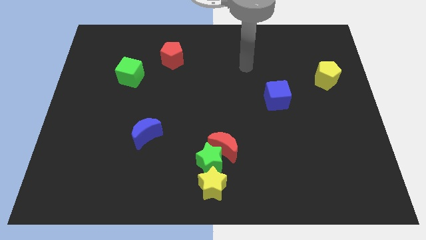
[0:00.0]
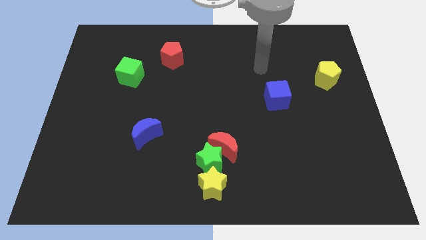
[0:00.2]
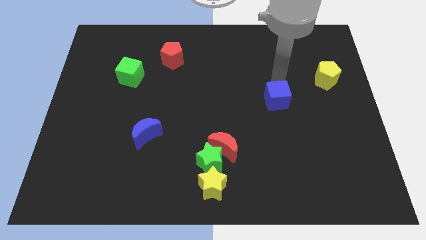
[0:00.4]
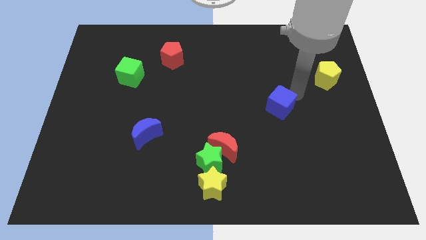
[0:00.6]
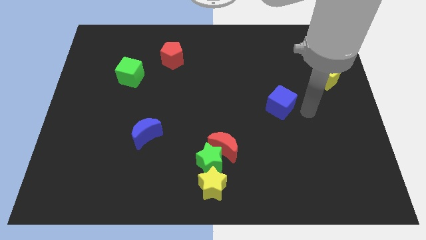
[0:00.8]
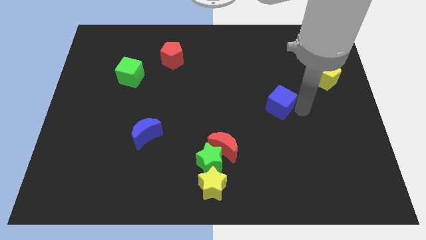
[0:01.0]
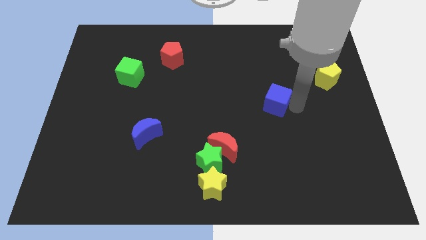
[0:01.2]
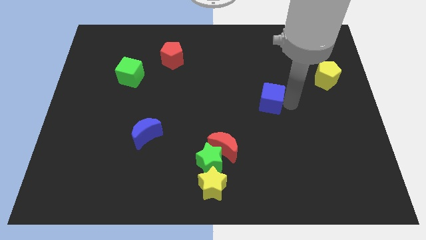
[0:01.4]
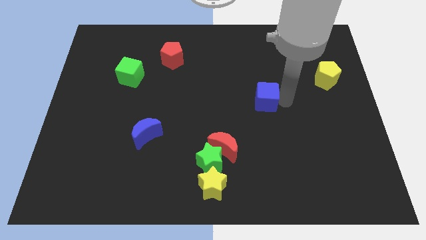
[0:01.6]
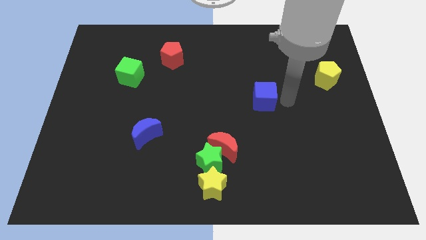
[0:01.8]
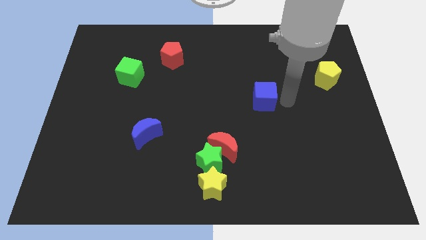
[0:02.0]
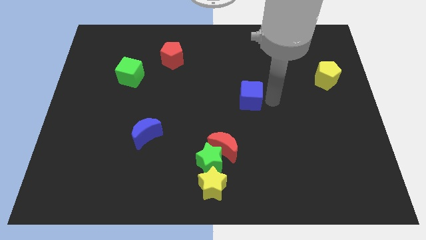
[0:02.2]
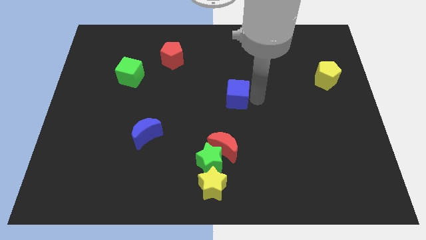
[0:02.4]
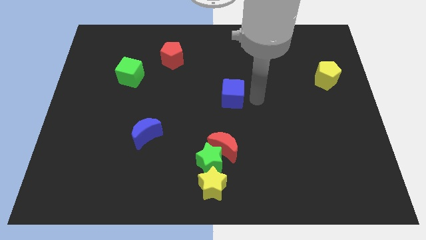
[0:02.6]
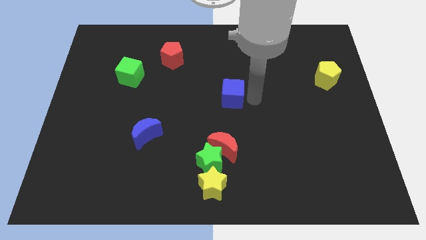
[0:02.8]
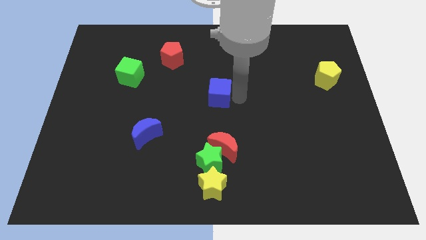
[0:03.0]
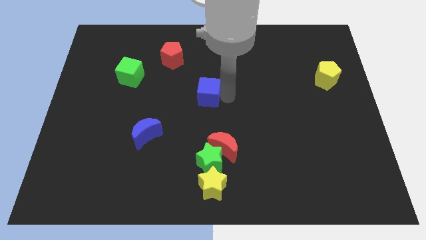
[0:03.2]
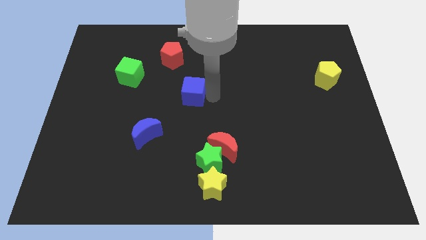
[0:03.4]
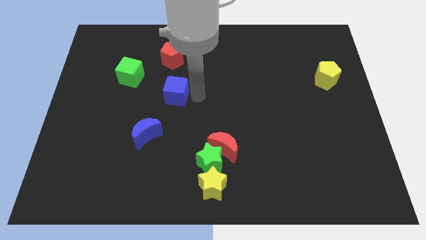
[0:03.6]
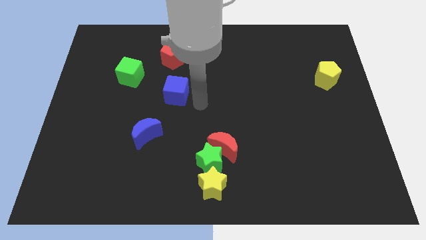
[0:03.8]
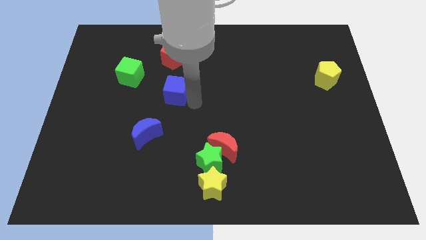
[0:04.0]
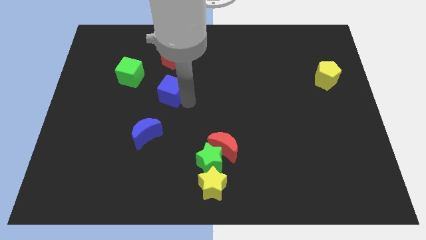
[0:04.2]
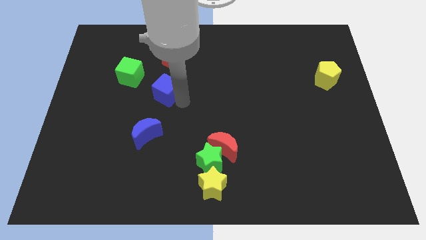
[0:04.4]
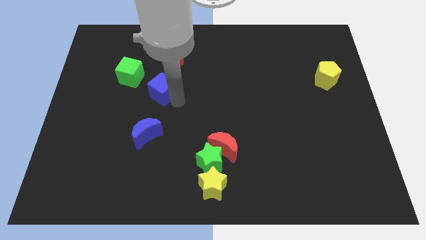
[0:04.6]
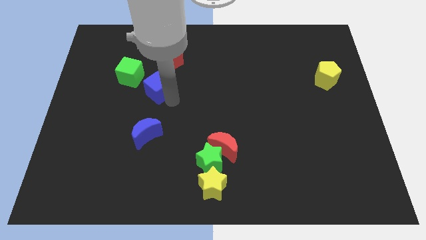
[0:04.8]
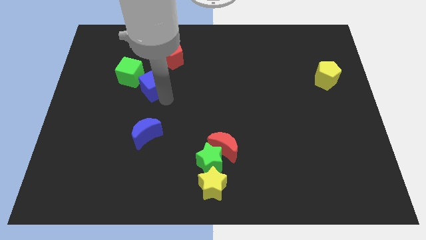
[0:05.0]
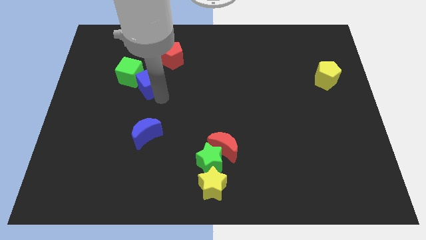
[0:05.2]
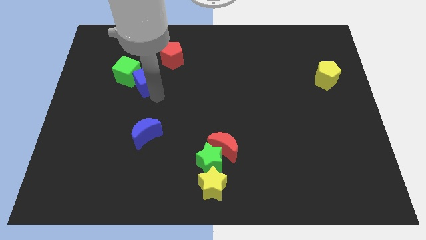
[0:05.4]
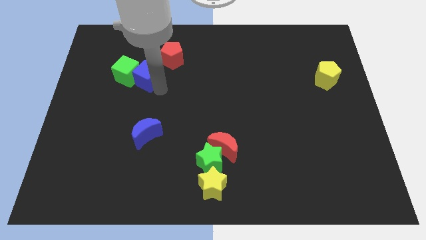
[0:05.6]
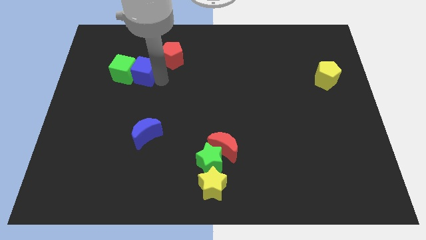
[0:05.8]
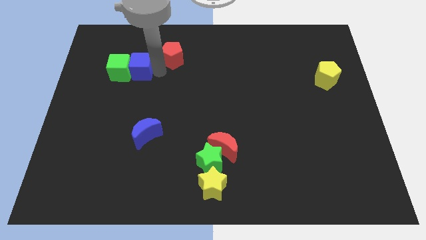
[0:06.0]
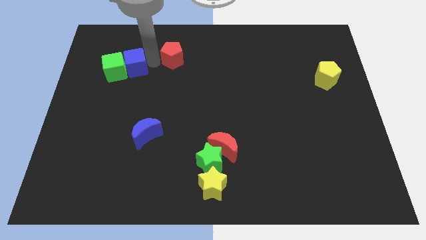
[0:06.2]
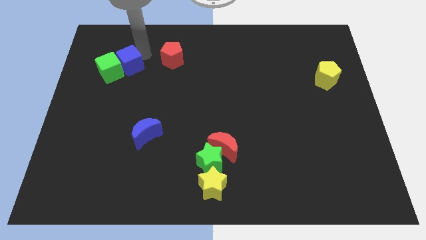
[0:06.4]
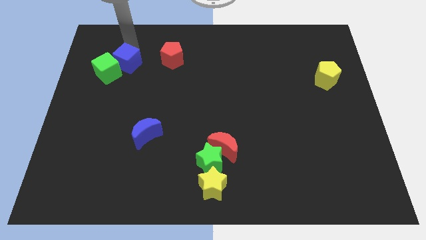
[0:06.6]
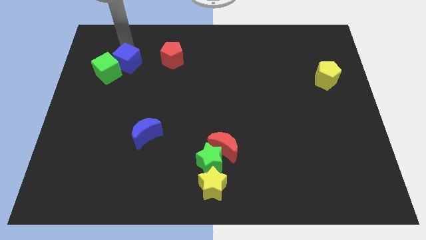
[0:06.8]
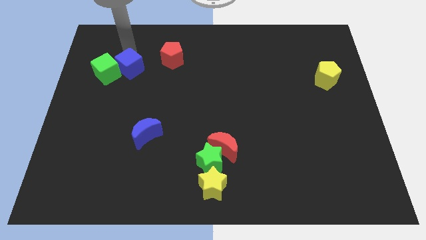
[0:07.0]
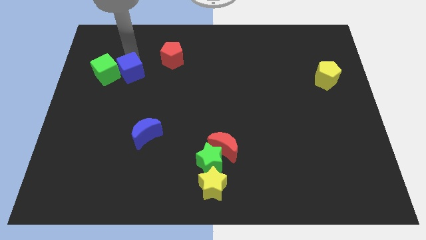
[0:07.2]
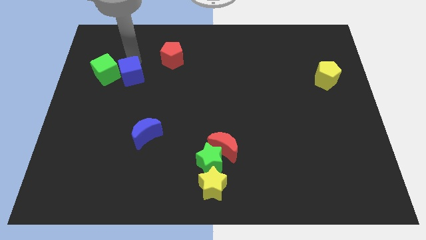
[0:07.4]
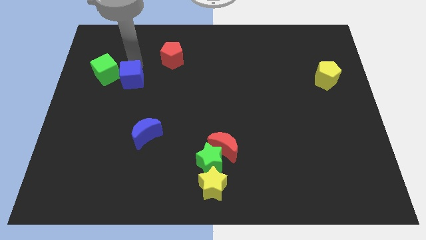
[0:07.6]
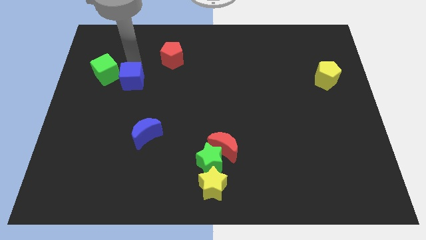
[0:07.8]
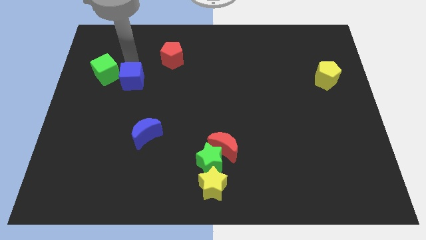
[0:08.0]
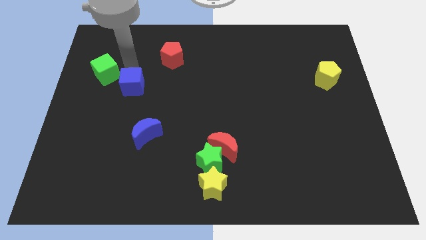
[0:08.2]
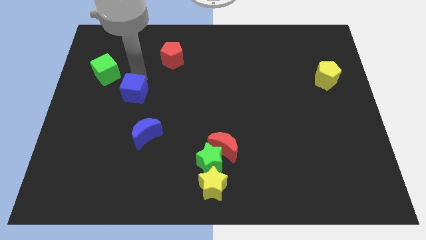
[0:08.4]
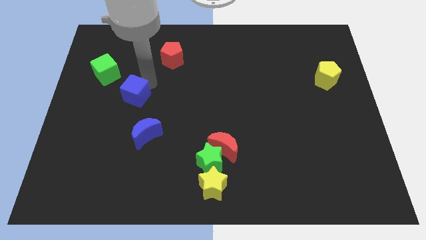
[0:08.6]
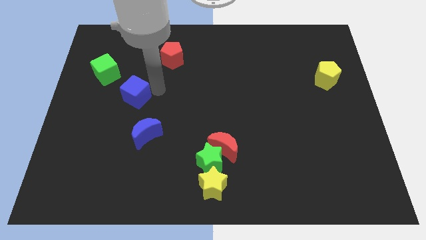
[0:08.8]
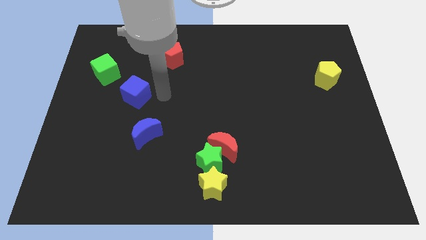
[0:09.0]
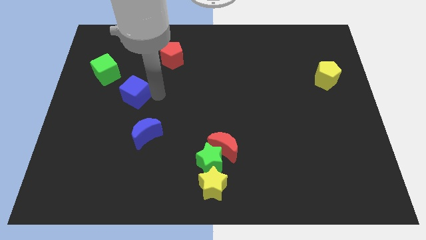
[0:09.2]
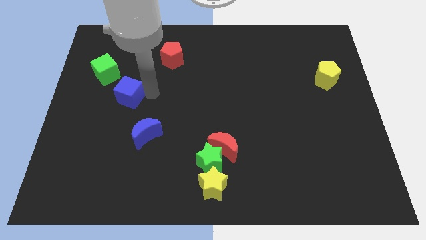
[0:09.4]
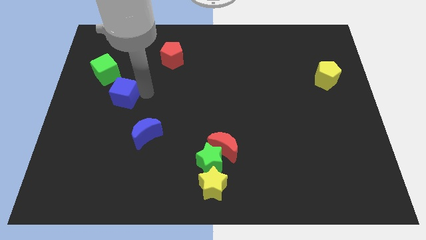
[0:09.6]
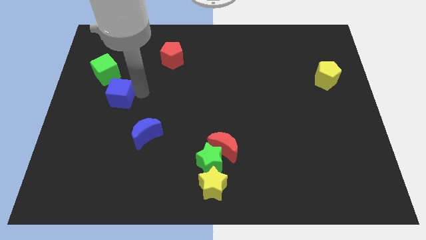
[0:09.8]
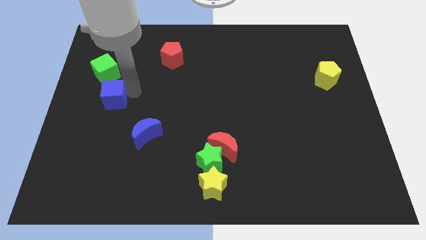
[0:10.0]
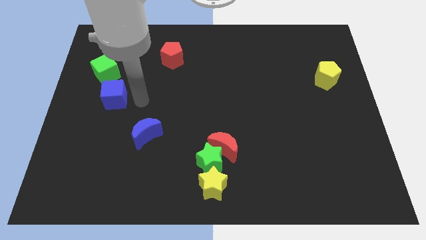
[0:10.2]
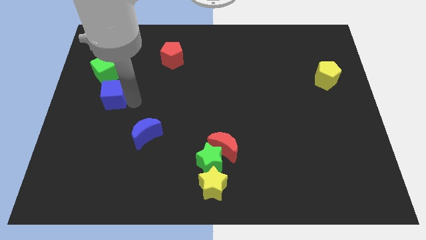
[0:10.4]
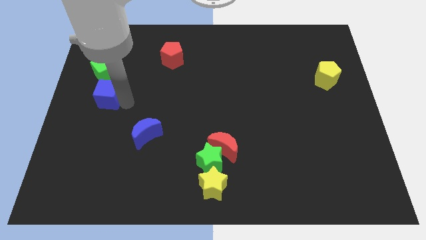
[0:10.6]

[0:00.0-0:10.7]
put the blue cube to the center left

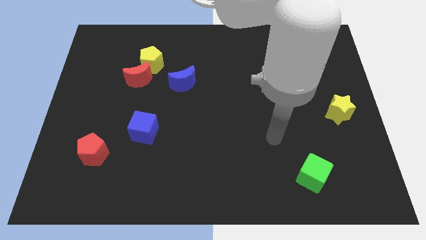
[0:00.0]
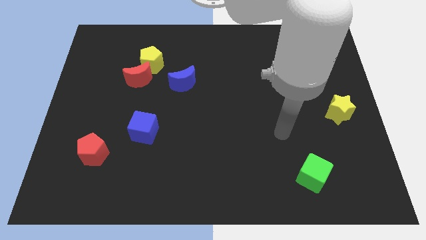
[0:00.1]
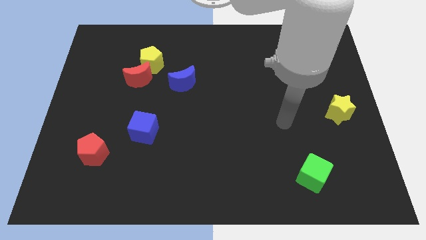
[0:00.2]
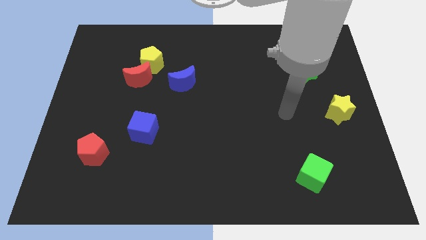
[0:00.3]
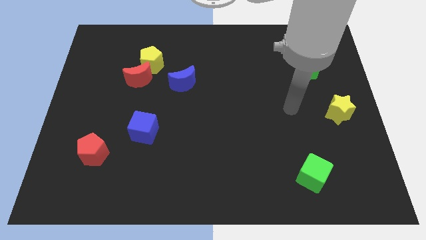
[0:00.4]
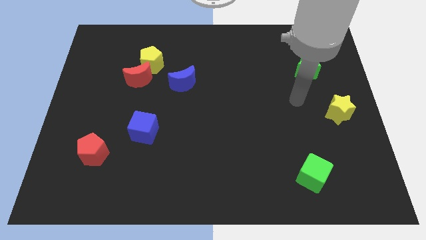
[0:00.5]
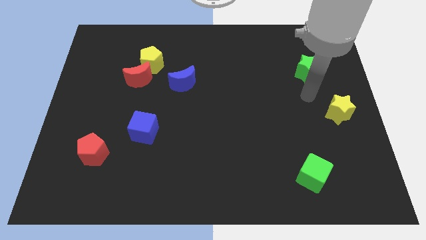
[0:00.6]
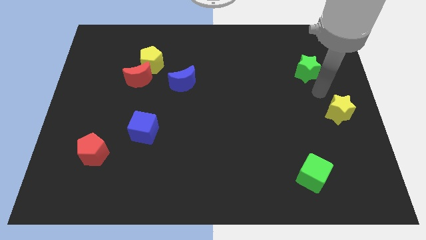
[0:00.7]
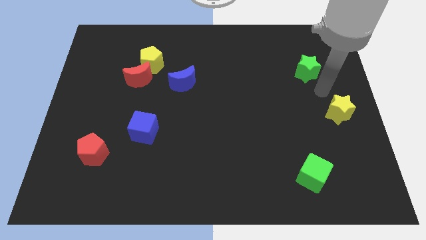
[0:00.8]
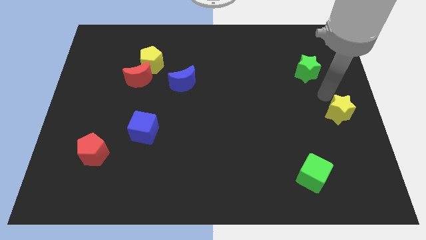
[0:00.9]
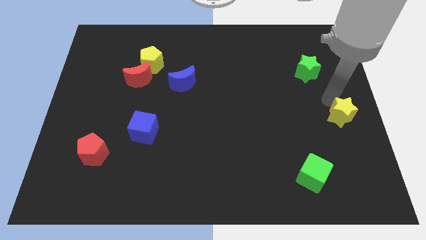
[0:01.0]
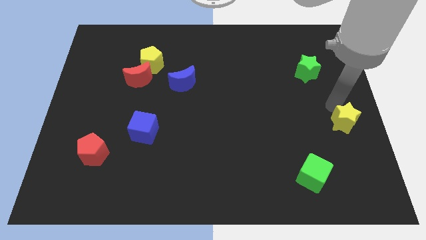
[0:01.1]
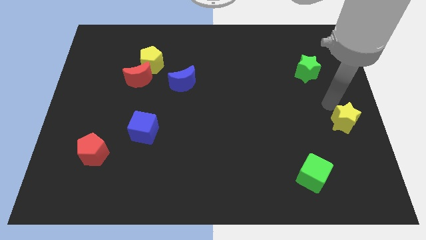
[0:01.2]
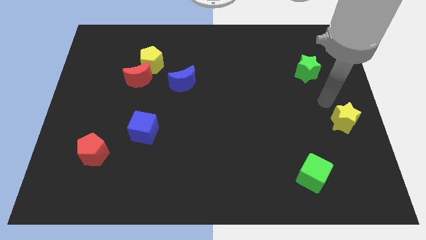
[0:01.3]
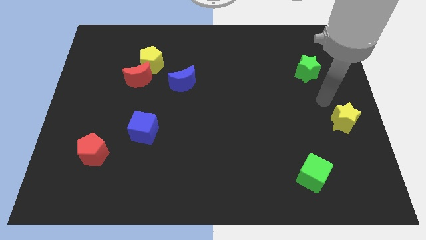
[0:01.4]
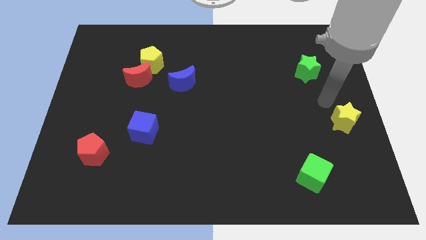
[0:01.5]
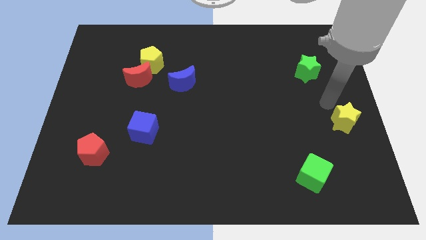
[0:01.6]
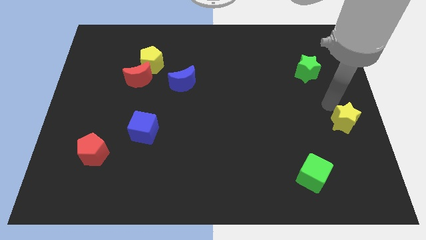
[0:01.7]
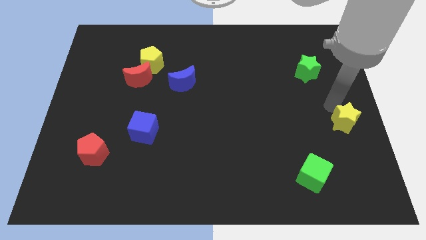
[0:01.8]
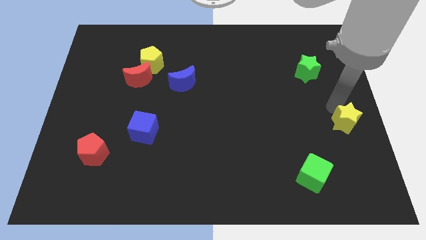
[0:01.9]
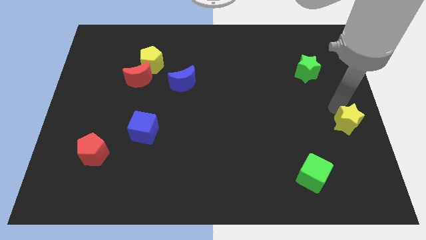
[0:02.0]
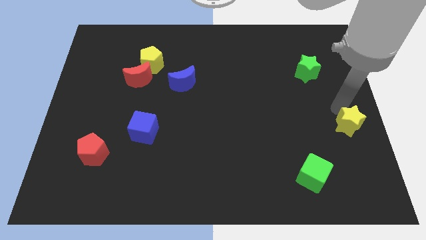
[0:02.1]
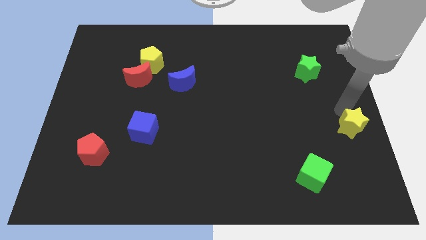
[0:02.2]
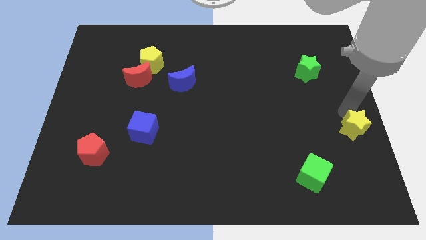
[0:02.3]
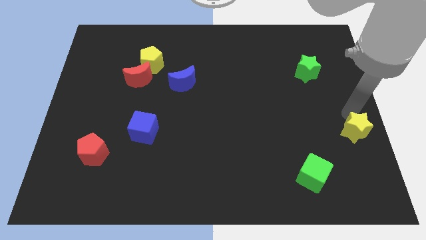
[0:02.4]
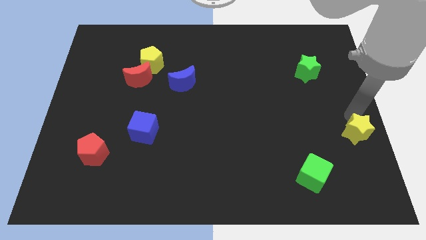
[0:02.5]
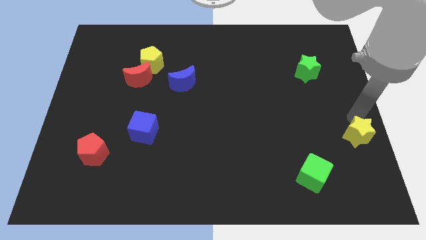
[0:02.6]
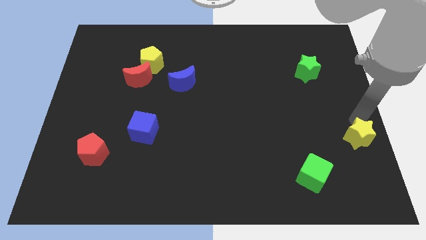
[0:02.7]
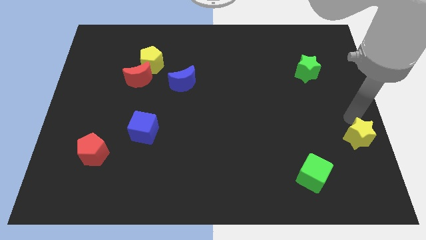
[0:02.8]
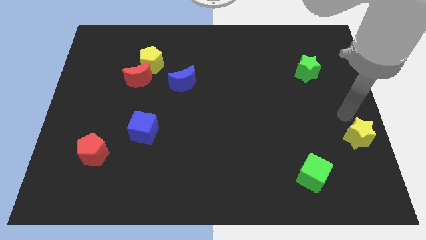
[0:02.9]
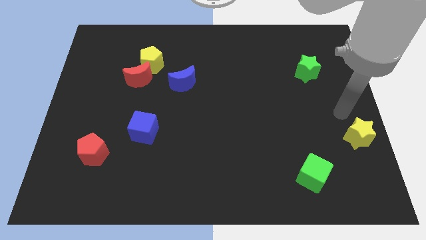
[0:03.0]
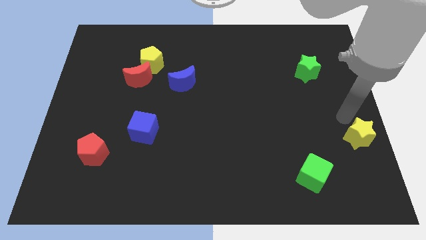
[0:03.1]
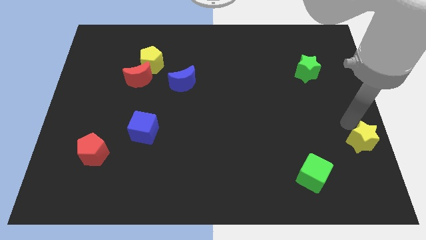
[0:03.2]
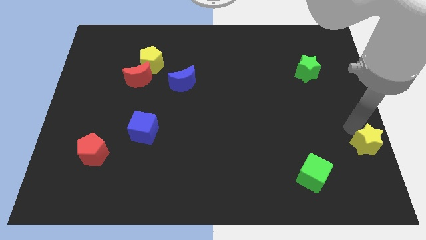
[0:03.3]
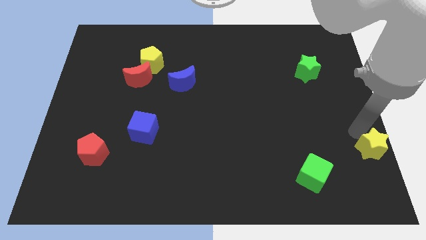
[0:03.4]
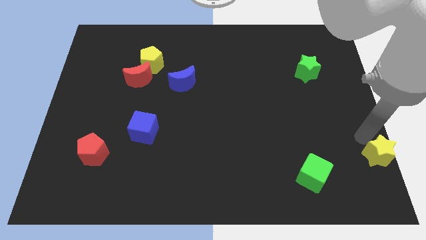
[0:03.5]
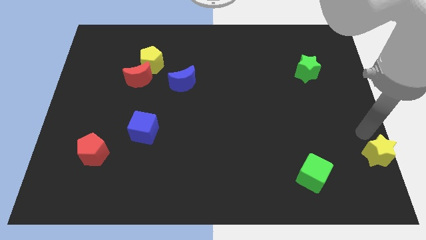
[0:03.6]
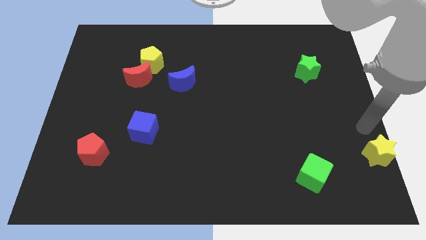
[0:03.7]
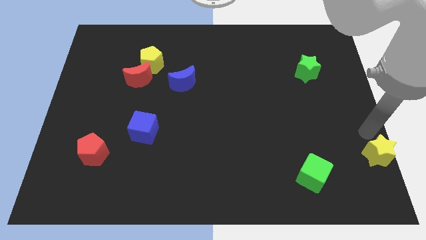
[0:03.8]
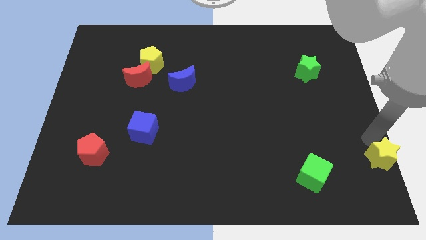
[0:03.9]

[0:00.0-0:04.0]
move the yellow star to the bottom right of the board
